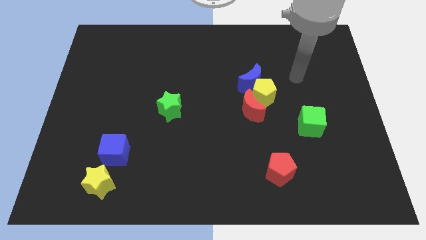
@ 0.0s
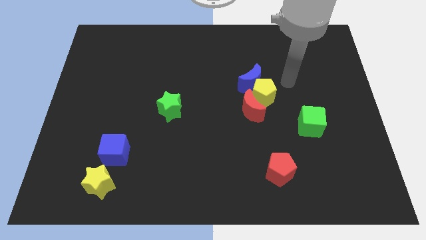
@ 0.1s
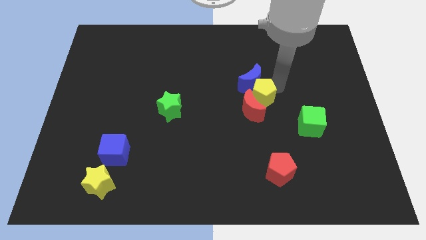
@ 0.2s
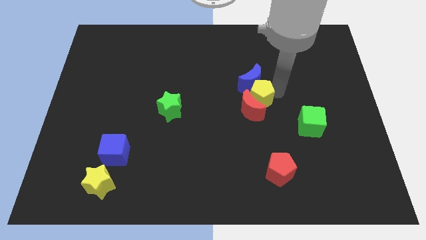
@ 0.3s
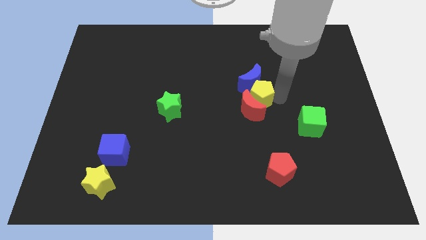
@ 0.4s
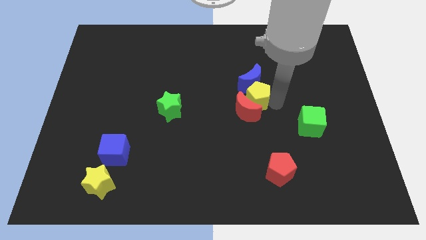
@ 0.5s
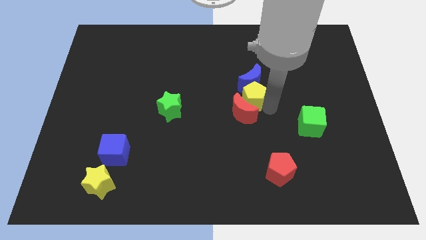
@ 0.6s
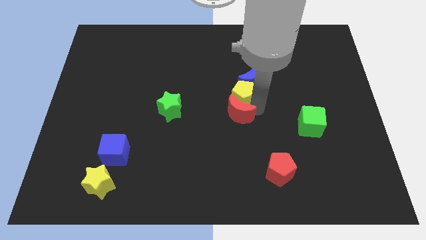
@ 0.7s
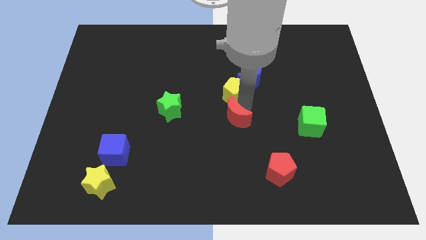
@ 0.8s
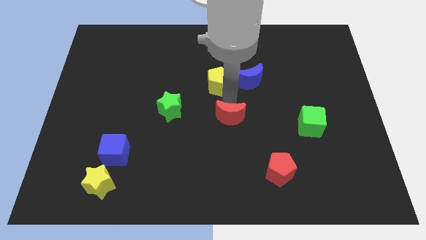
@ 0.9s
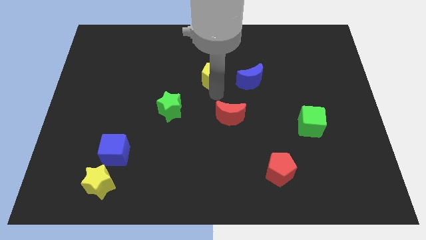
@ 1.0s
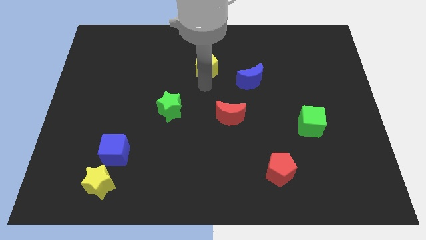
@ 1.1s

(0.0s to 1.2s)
pull the yellow pentagon apart from the blue moon and red moon

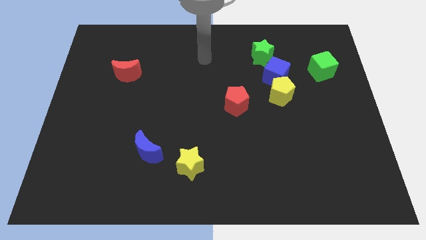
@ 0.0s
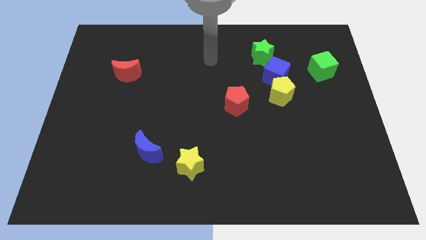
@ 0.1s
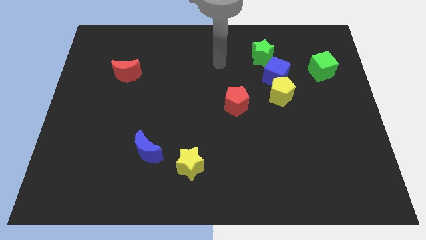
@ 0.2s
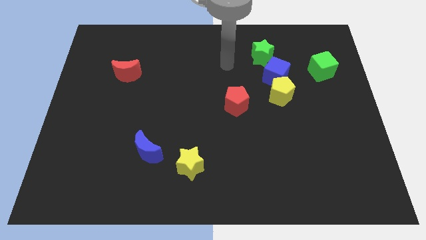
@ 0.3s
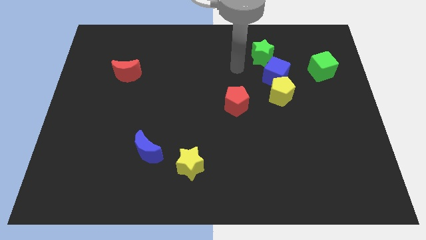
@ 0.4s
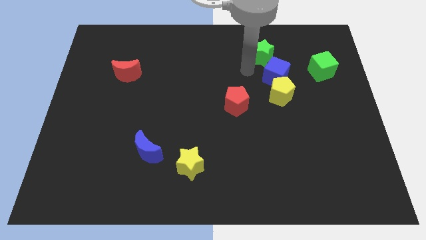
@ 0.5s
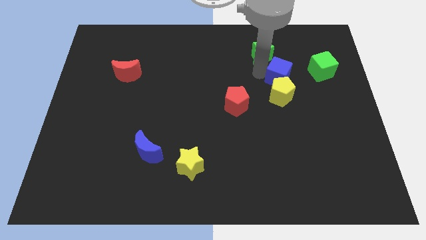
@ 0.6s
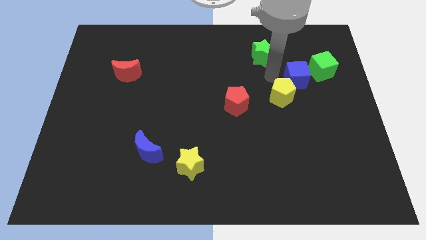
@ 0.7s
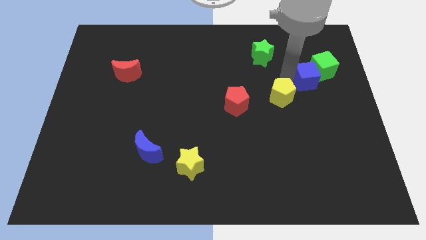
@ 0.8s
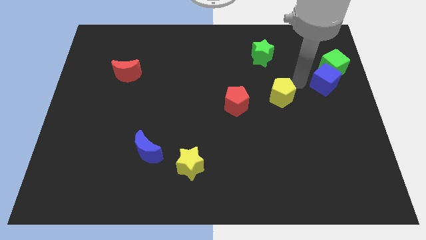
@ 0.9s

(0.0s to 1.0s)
pull the yellow pentagon apart from the blue cube

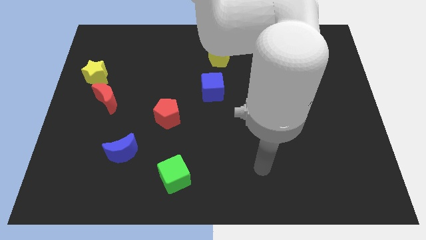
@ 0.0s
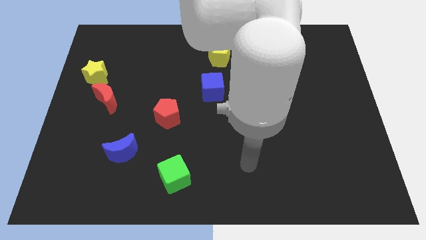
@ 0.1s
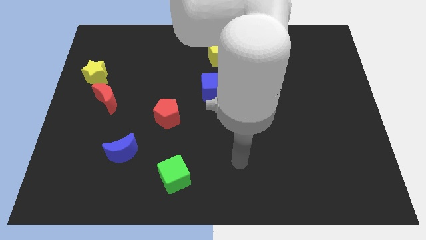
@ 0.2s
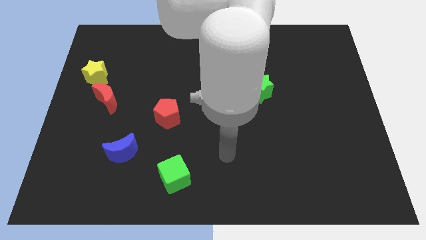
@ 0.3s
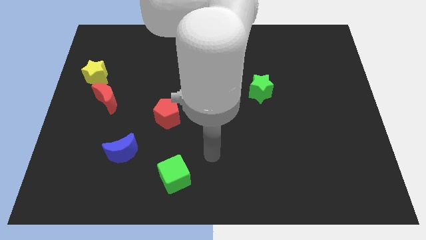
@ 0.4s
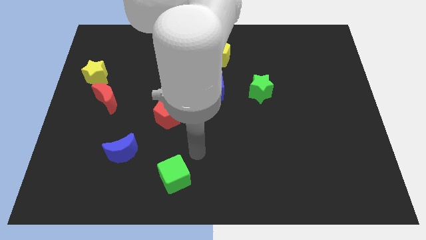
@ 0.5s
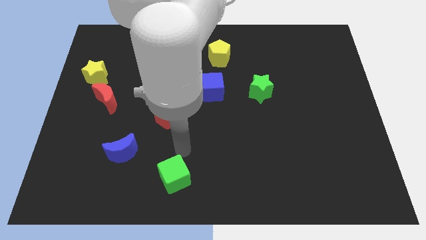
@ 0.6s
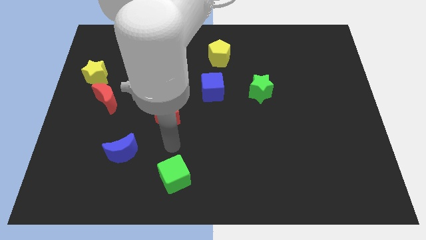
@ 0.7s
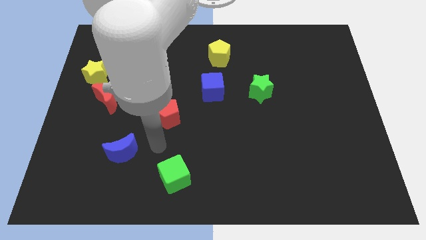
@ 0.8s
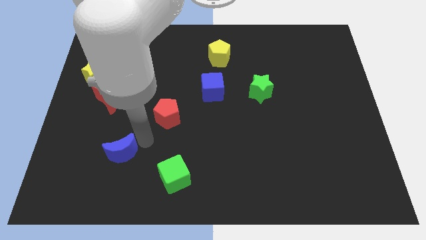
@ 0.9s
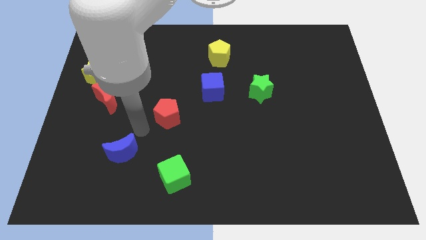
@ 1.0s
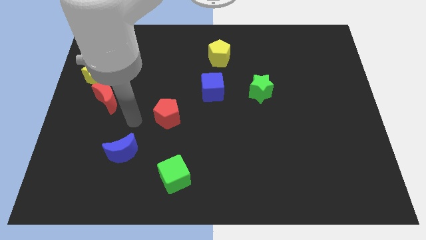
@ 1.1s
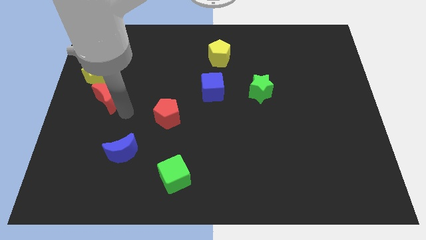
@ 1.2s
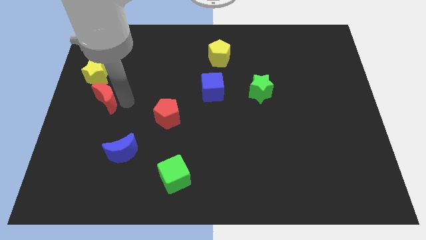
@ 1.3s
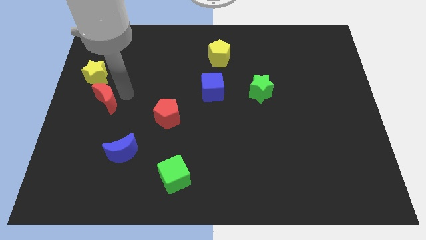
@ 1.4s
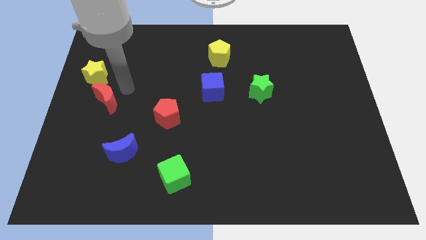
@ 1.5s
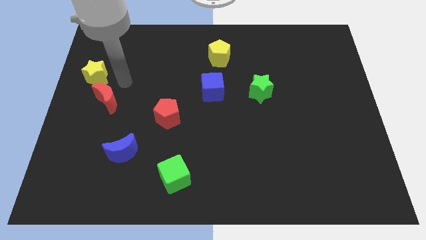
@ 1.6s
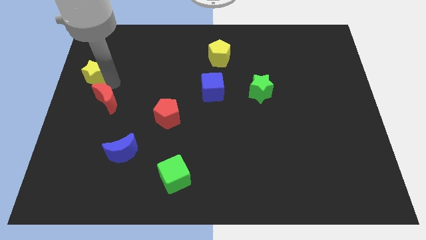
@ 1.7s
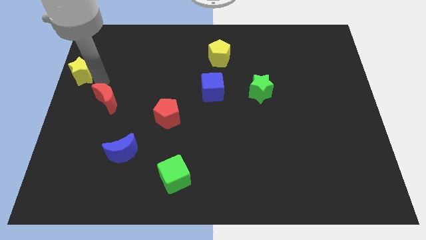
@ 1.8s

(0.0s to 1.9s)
separate the red moon from the yellow star

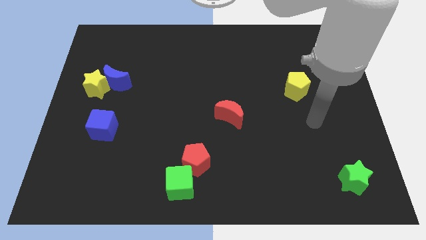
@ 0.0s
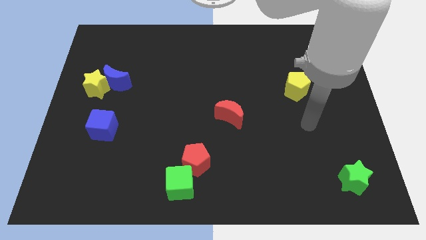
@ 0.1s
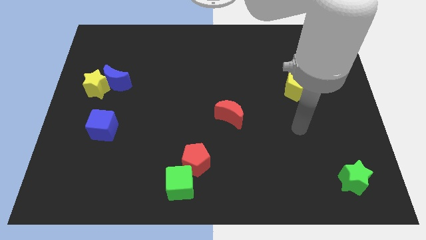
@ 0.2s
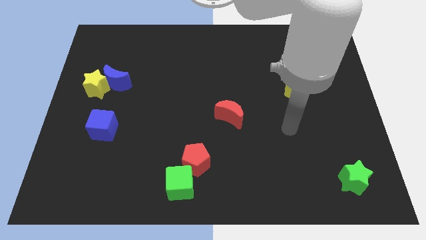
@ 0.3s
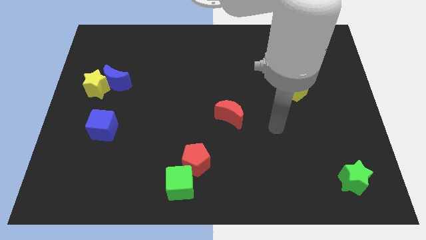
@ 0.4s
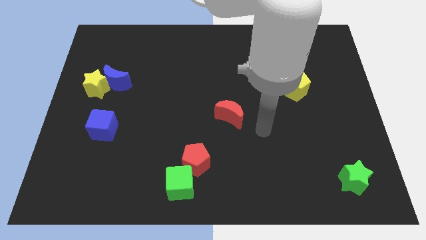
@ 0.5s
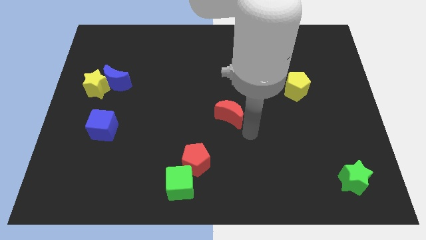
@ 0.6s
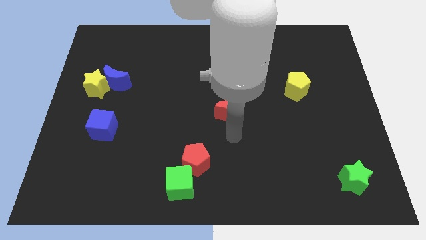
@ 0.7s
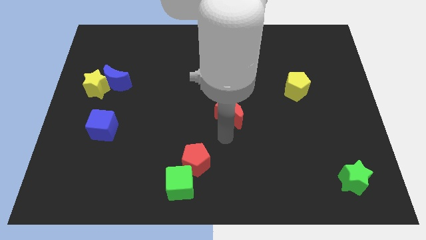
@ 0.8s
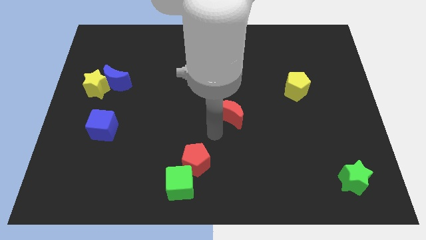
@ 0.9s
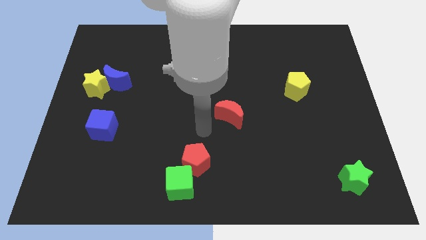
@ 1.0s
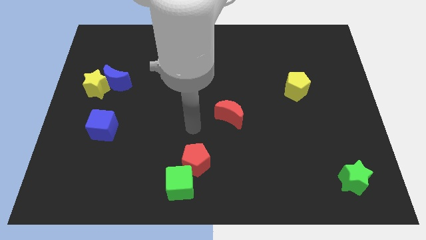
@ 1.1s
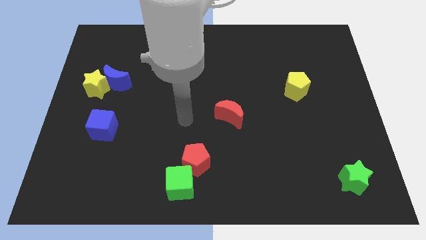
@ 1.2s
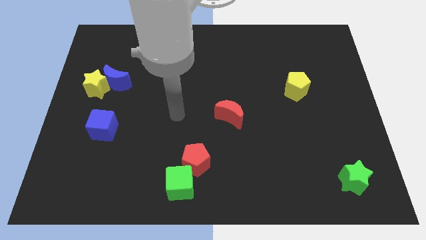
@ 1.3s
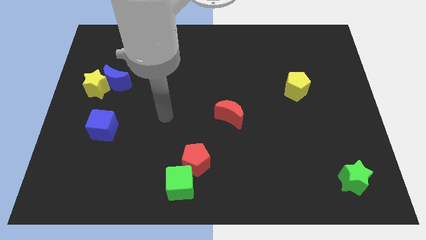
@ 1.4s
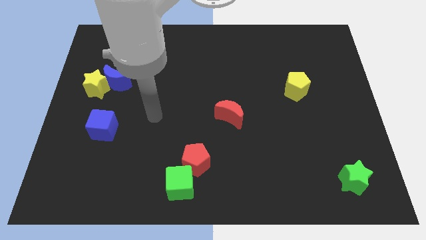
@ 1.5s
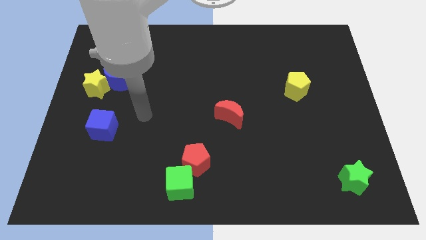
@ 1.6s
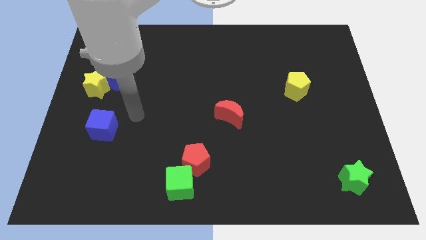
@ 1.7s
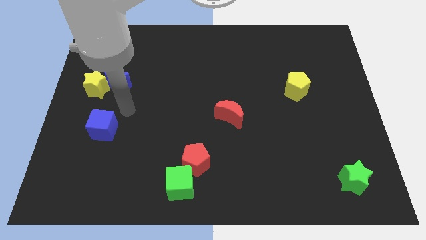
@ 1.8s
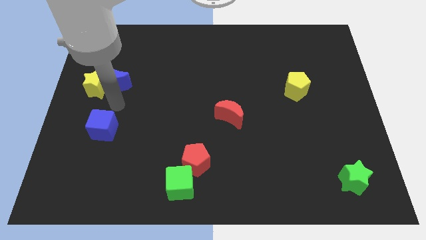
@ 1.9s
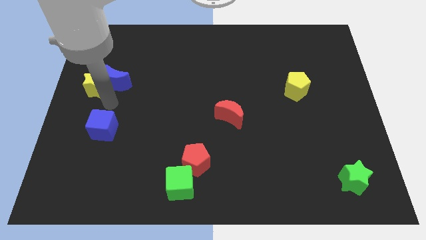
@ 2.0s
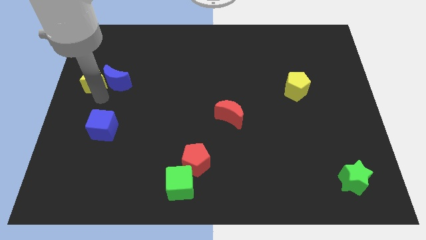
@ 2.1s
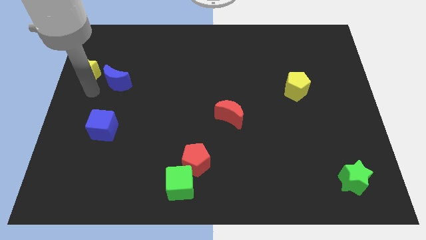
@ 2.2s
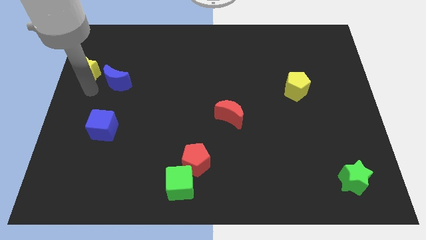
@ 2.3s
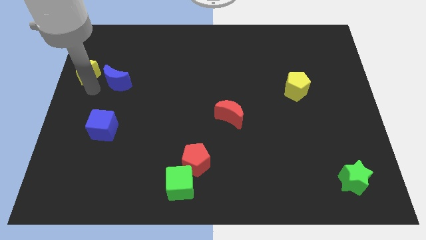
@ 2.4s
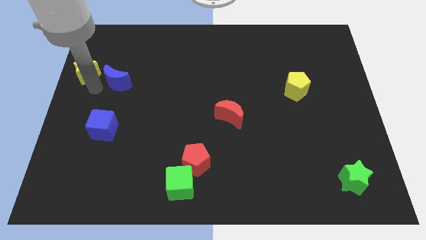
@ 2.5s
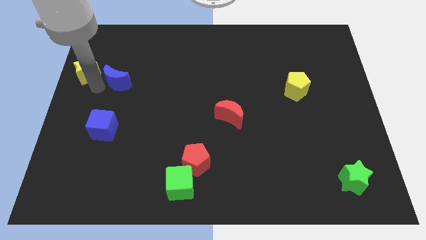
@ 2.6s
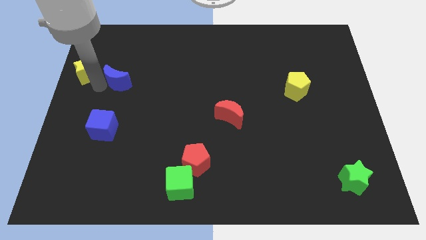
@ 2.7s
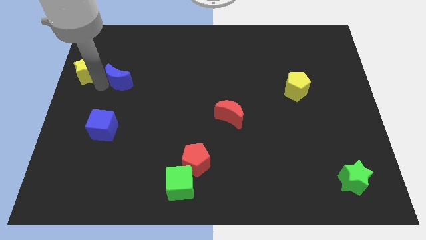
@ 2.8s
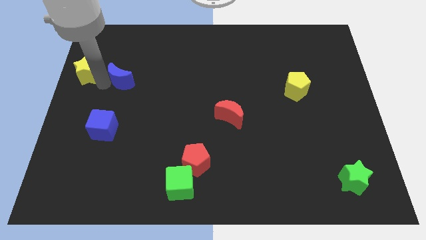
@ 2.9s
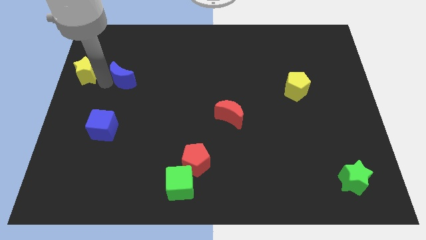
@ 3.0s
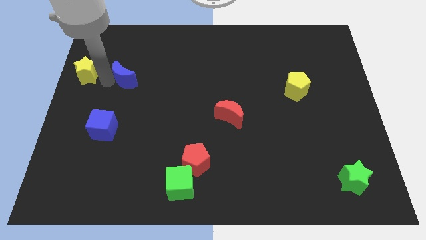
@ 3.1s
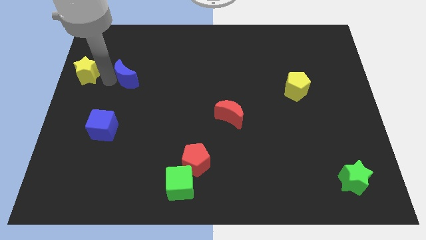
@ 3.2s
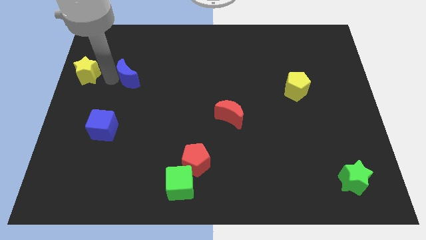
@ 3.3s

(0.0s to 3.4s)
move the blue moon away from the yellow star

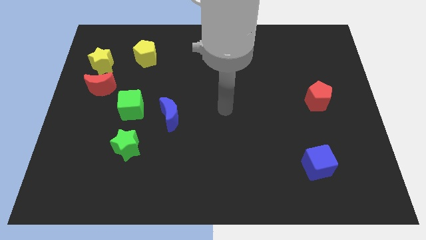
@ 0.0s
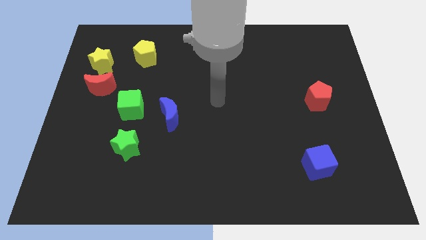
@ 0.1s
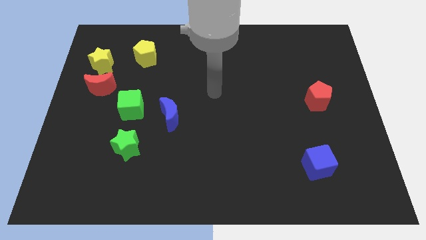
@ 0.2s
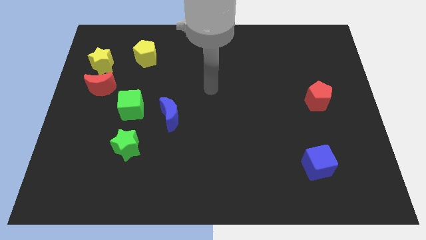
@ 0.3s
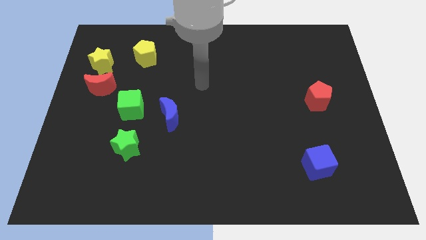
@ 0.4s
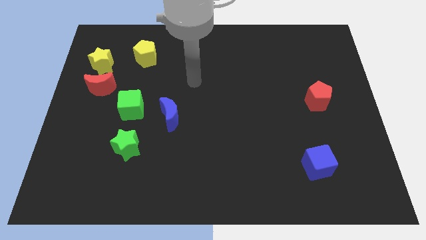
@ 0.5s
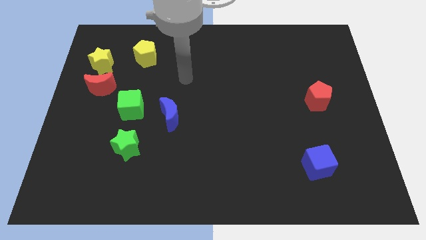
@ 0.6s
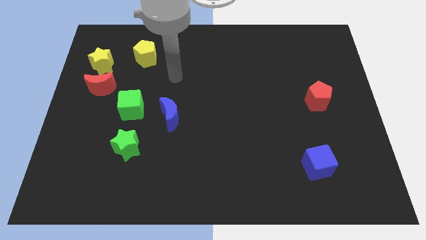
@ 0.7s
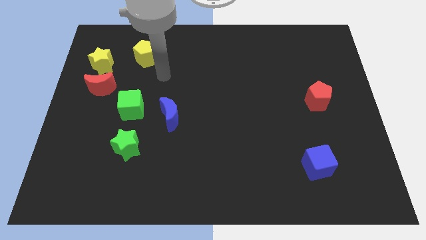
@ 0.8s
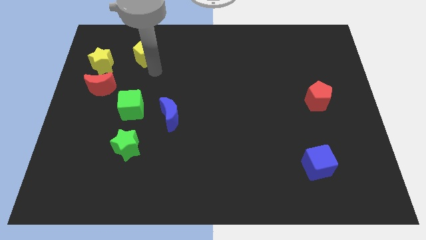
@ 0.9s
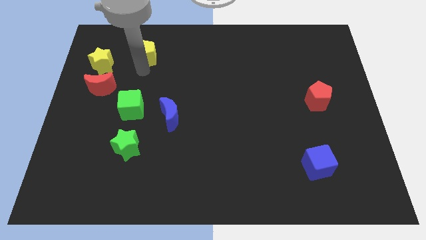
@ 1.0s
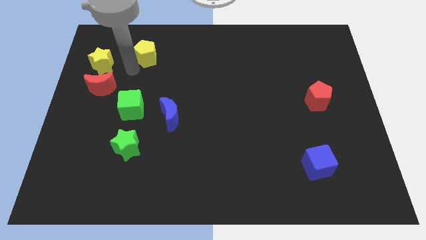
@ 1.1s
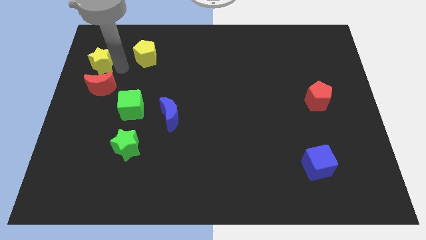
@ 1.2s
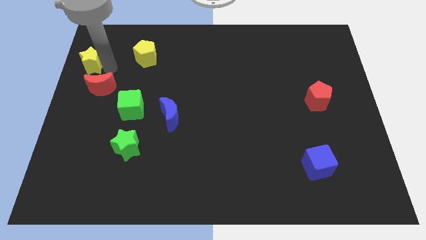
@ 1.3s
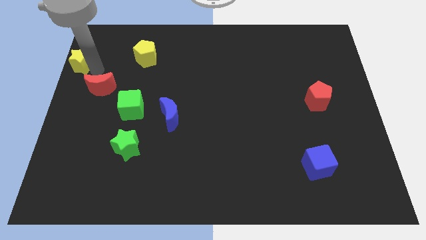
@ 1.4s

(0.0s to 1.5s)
pull the red moon apart from the yellow star

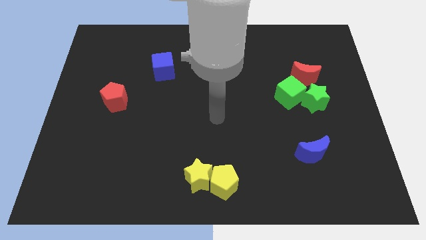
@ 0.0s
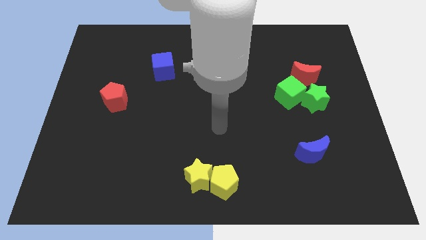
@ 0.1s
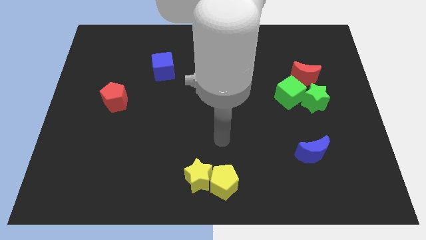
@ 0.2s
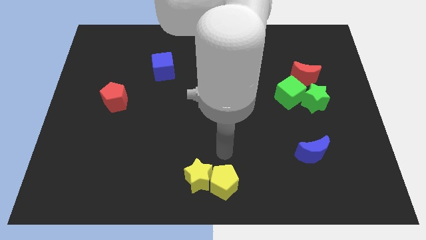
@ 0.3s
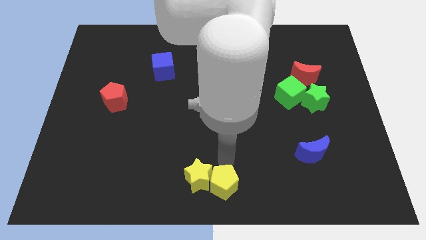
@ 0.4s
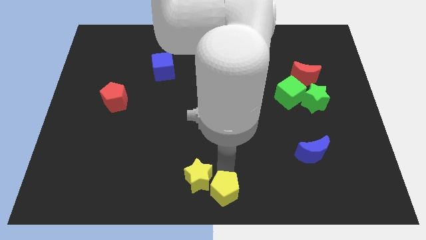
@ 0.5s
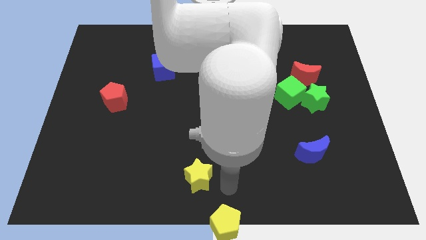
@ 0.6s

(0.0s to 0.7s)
pull the yellow star apart from the yellow pentagon
